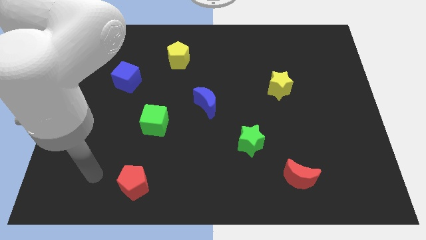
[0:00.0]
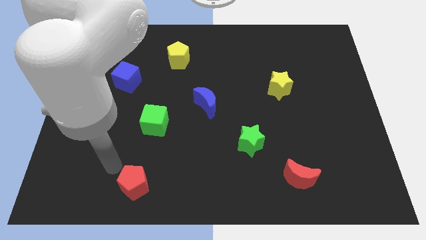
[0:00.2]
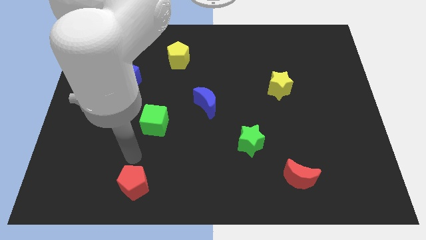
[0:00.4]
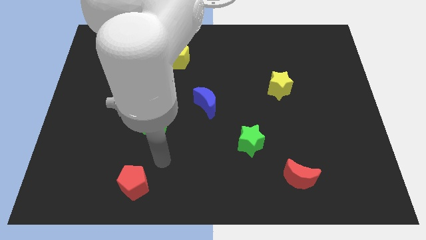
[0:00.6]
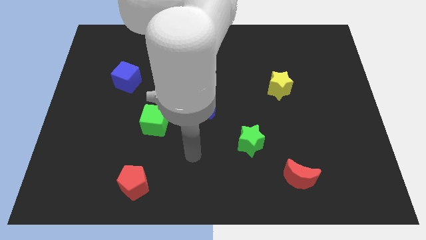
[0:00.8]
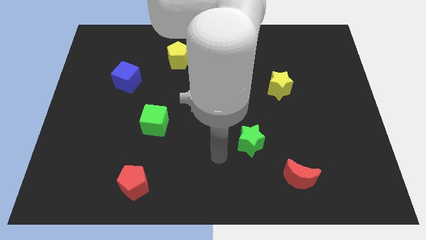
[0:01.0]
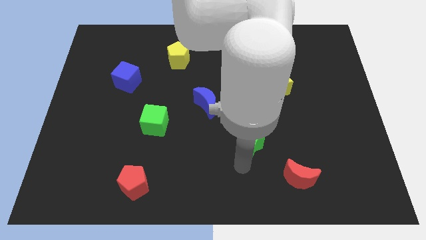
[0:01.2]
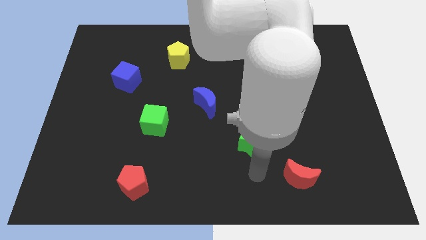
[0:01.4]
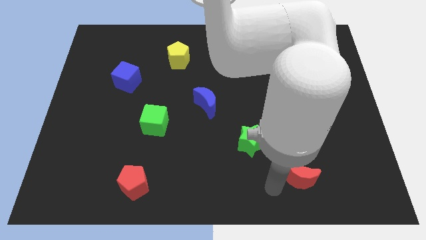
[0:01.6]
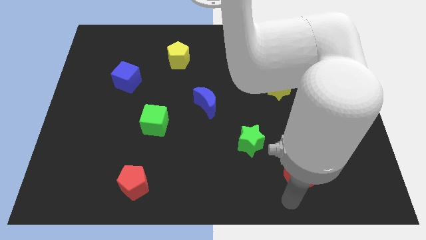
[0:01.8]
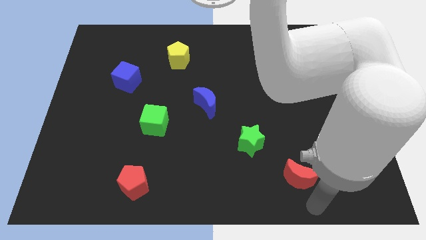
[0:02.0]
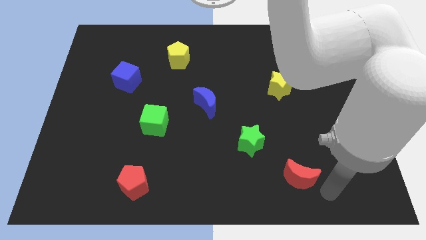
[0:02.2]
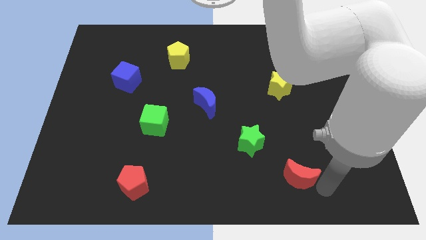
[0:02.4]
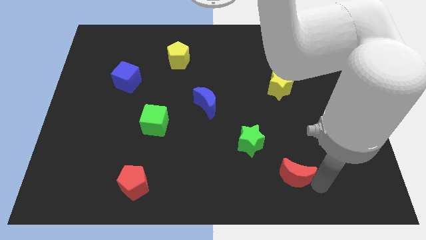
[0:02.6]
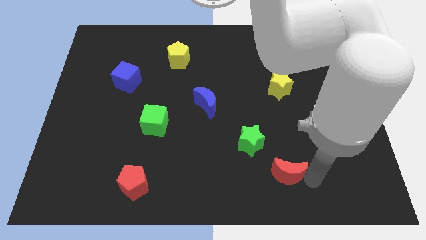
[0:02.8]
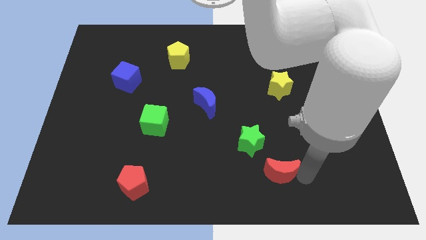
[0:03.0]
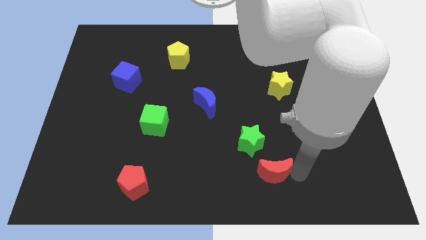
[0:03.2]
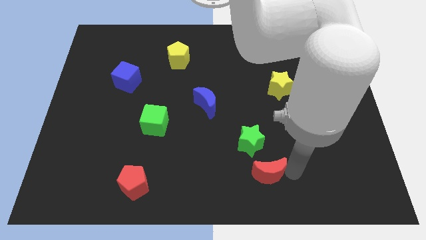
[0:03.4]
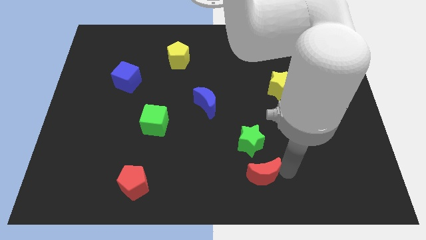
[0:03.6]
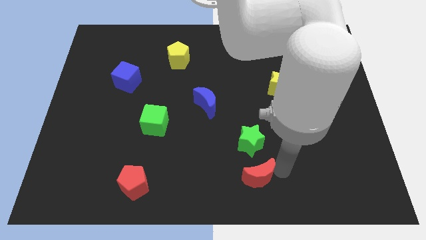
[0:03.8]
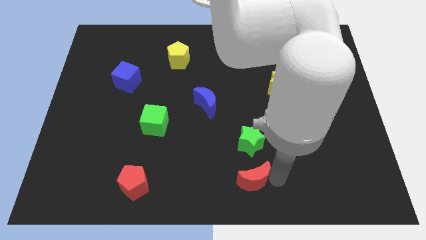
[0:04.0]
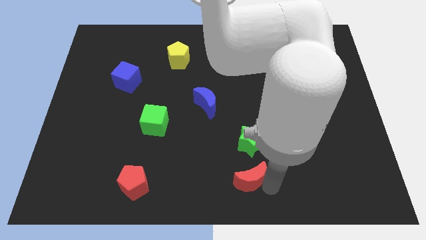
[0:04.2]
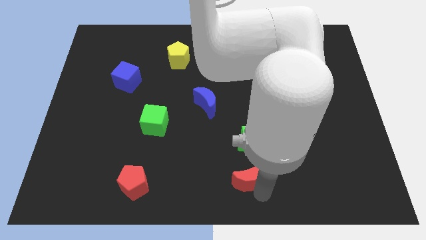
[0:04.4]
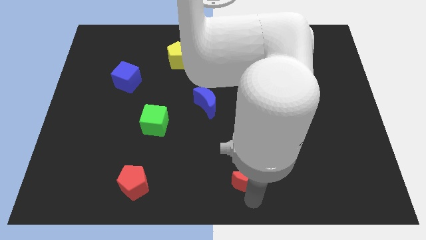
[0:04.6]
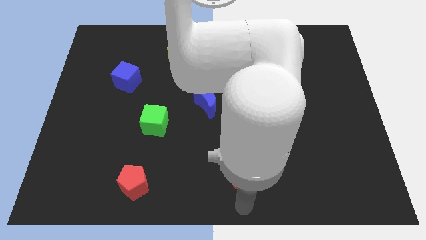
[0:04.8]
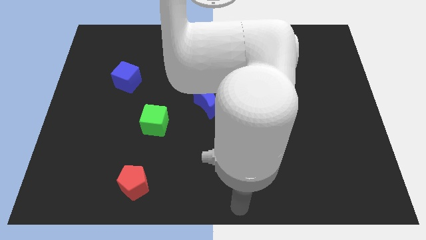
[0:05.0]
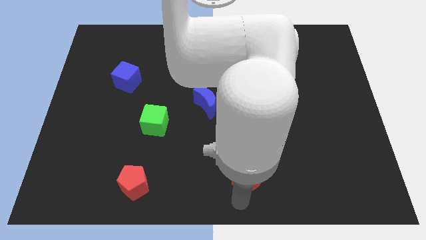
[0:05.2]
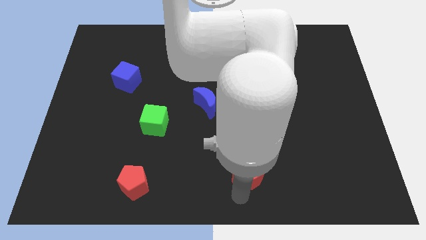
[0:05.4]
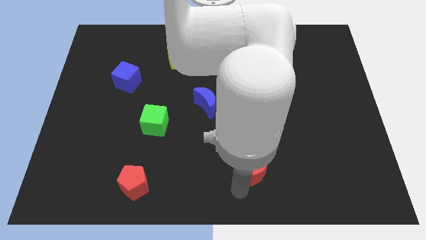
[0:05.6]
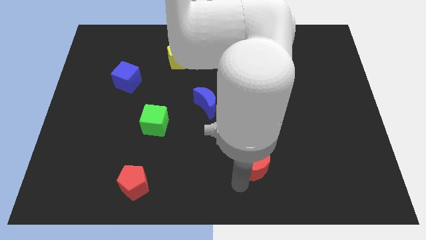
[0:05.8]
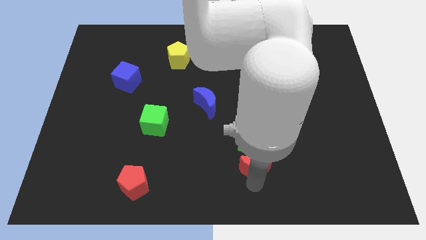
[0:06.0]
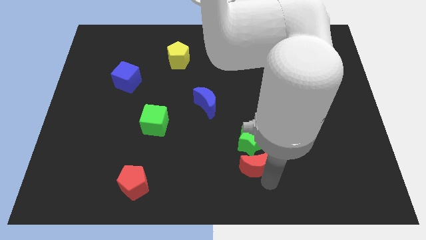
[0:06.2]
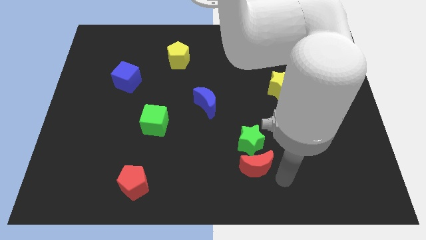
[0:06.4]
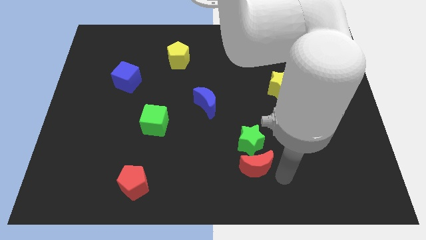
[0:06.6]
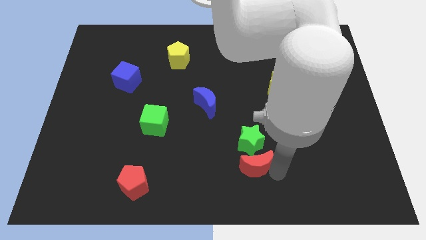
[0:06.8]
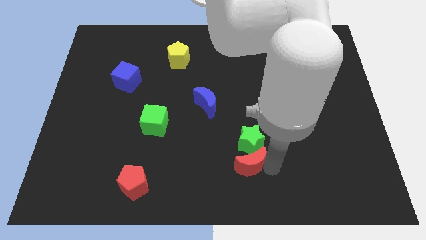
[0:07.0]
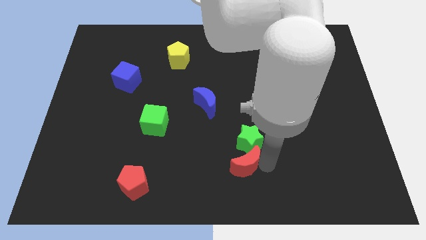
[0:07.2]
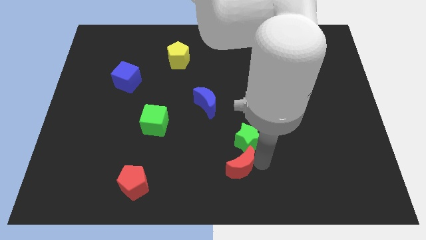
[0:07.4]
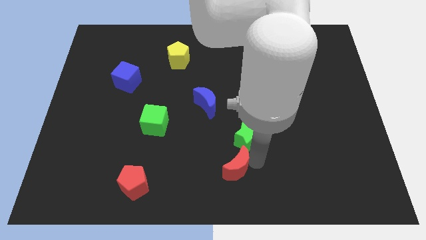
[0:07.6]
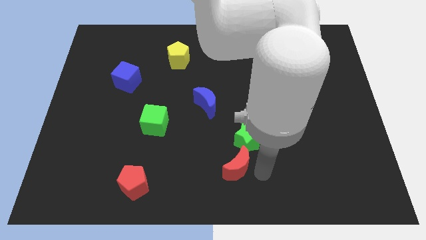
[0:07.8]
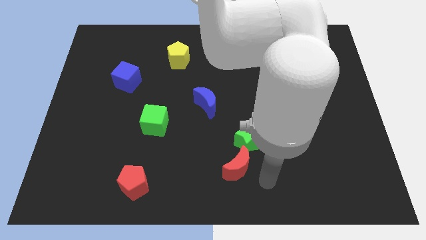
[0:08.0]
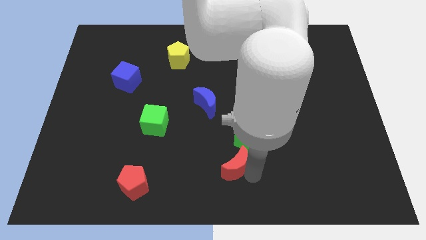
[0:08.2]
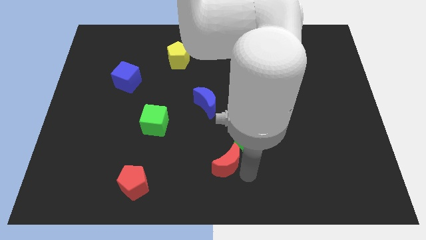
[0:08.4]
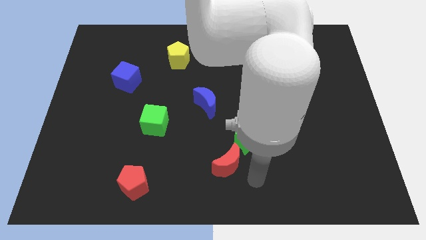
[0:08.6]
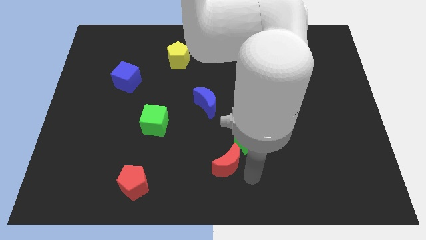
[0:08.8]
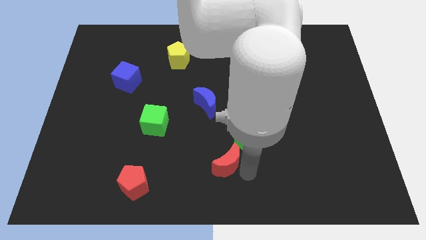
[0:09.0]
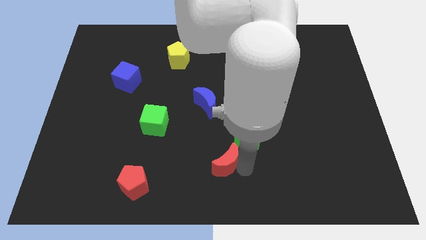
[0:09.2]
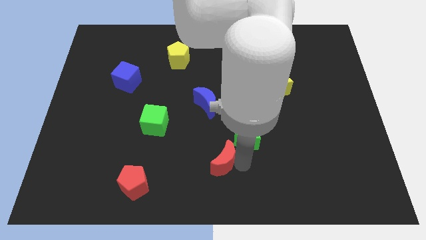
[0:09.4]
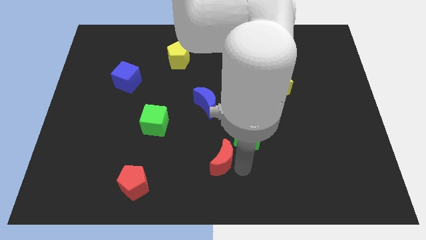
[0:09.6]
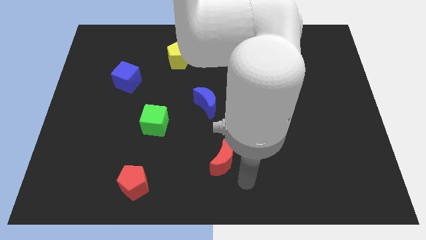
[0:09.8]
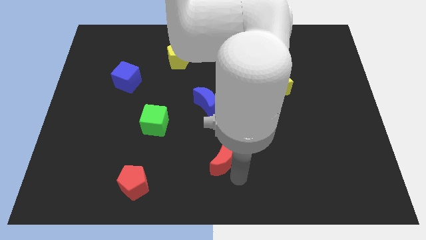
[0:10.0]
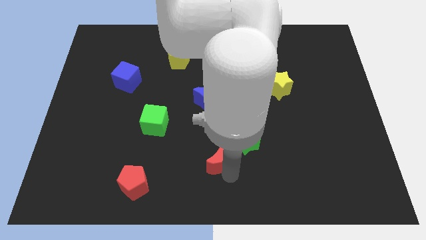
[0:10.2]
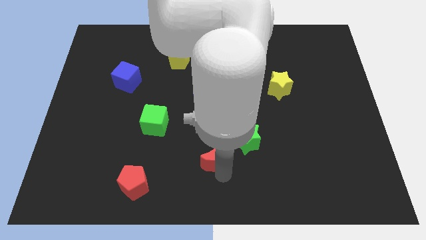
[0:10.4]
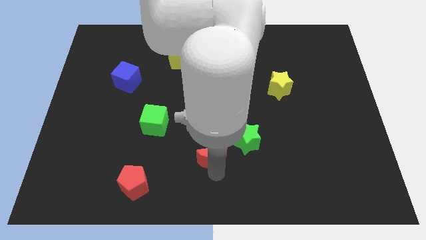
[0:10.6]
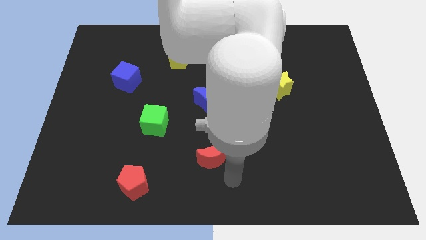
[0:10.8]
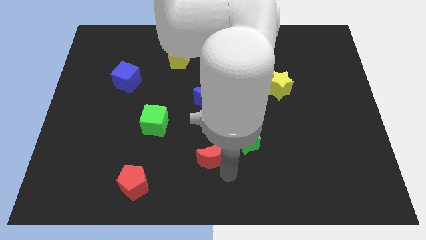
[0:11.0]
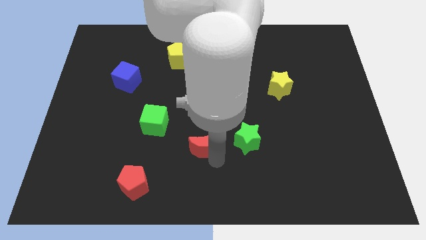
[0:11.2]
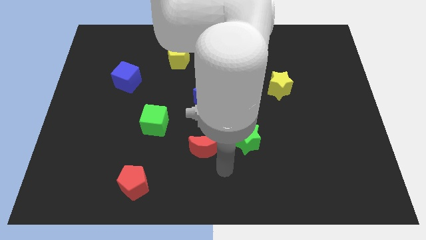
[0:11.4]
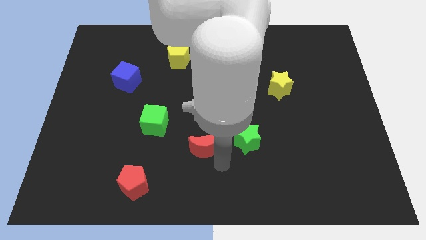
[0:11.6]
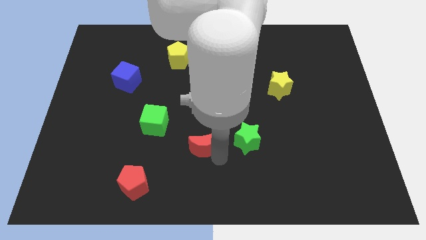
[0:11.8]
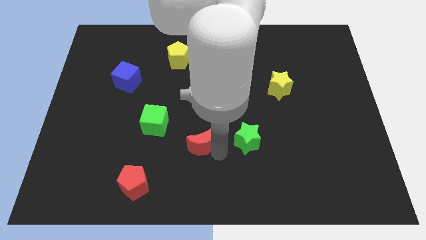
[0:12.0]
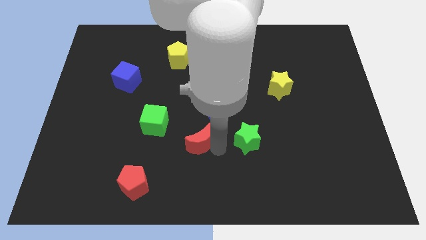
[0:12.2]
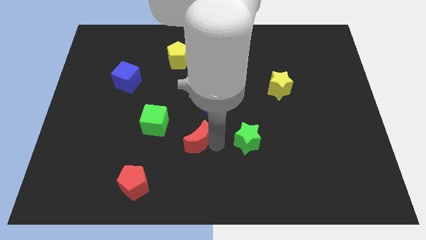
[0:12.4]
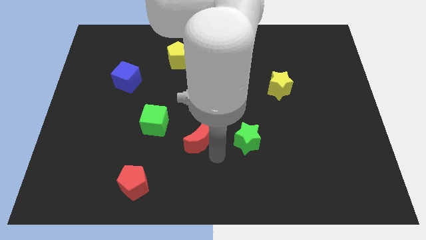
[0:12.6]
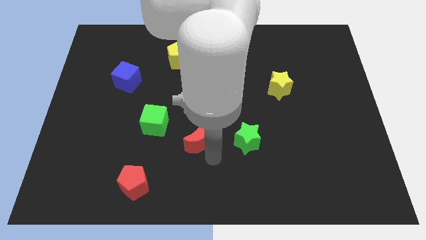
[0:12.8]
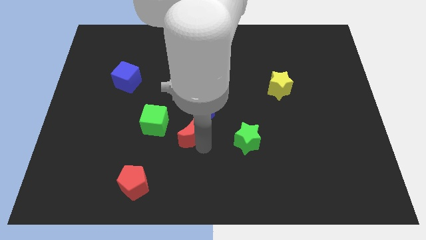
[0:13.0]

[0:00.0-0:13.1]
put the red moon to the bottom left of the blue moon

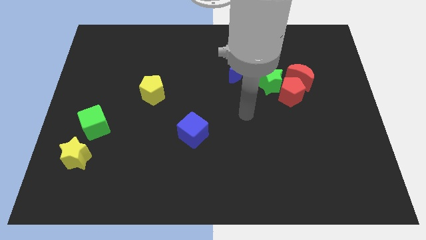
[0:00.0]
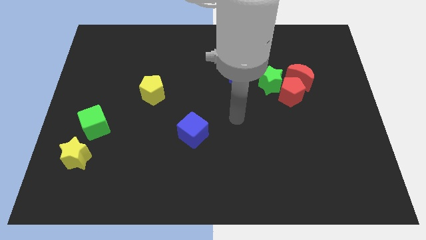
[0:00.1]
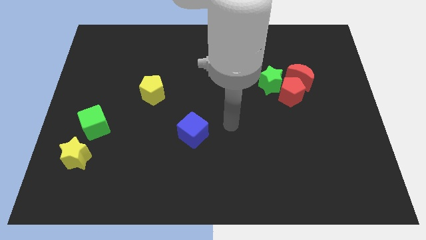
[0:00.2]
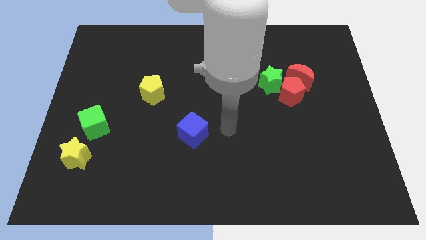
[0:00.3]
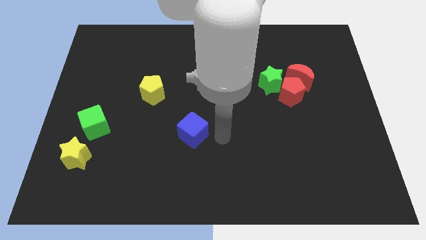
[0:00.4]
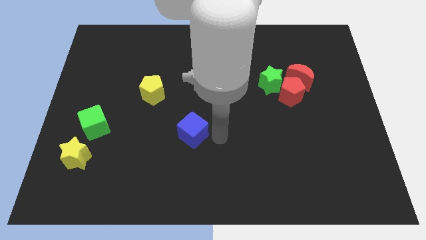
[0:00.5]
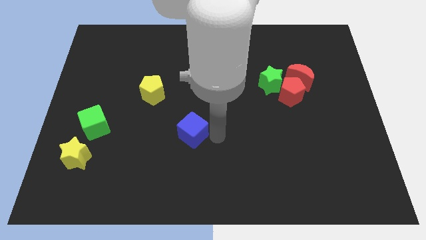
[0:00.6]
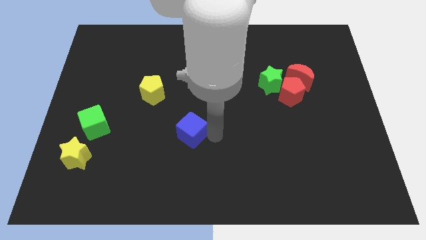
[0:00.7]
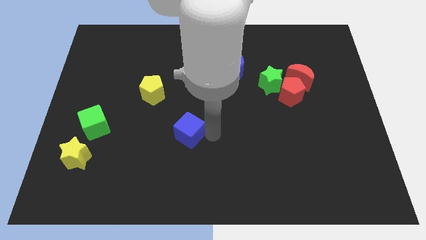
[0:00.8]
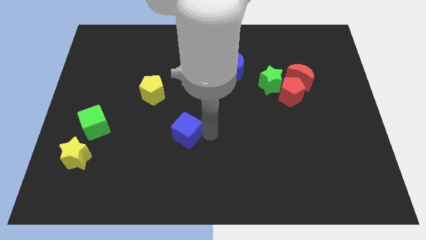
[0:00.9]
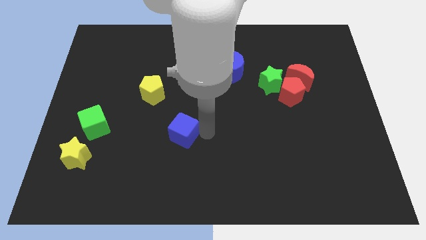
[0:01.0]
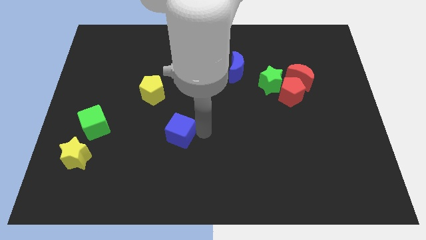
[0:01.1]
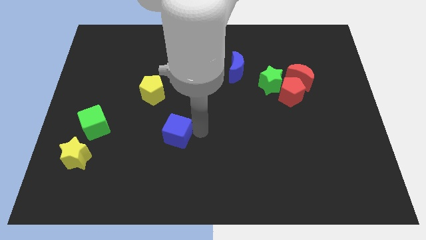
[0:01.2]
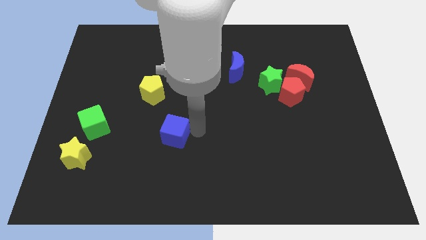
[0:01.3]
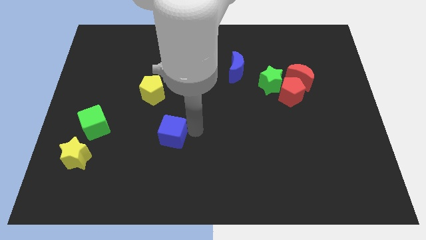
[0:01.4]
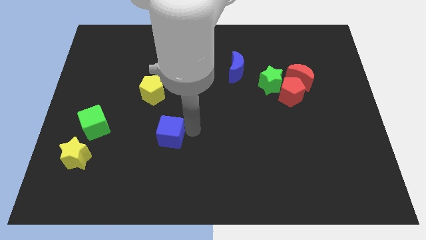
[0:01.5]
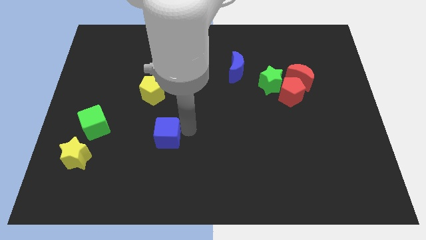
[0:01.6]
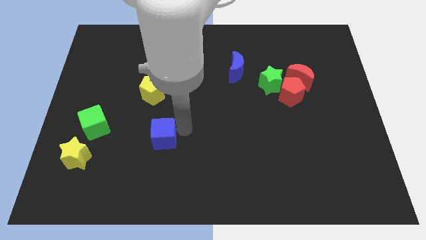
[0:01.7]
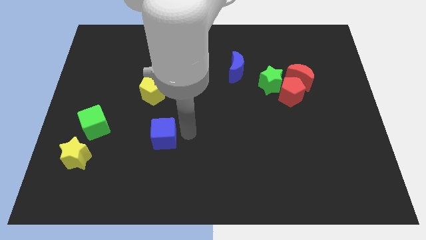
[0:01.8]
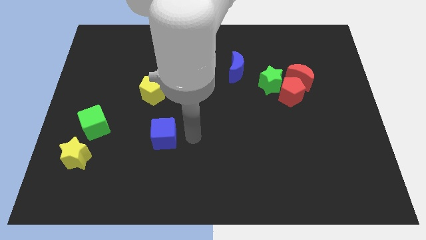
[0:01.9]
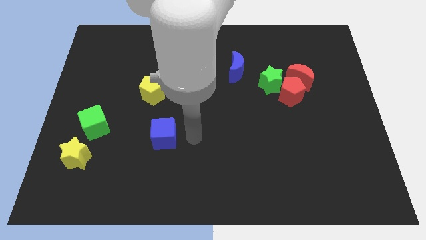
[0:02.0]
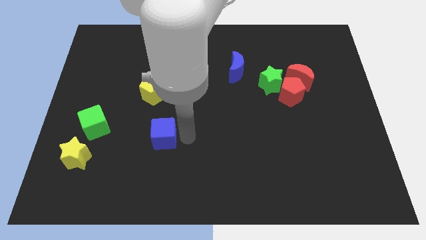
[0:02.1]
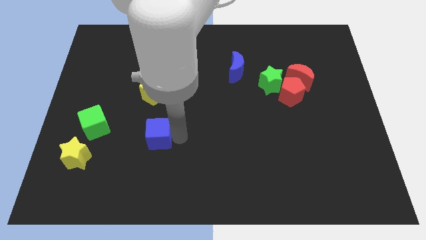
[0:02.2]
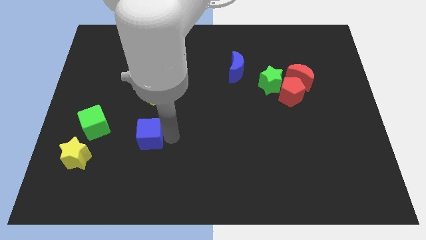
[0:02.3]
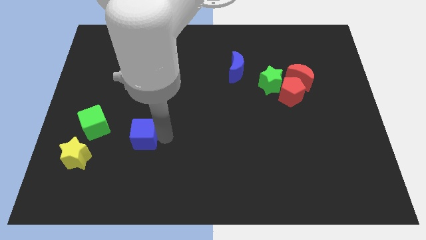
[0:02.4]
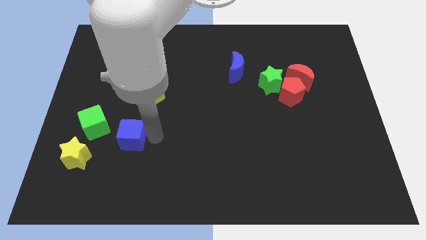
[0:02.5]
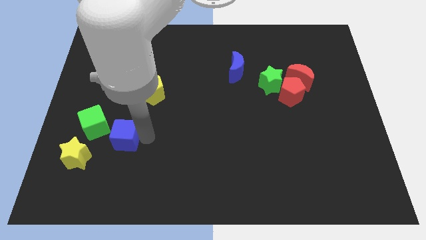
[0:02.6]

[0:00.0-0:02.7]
put the blue cube to the top right of the yellow star
